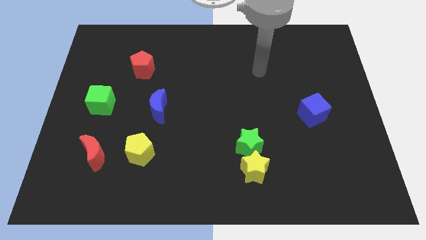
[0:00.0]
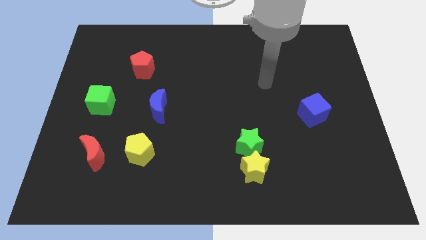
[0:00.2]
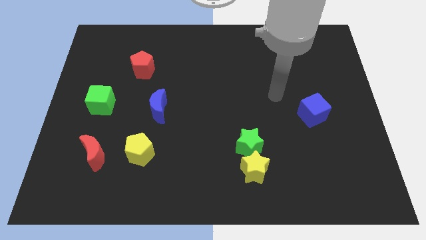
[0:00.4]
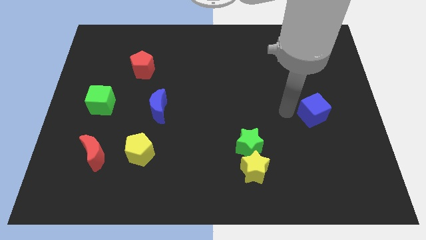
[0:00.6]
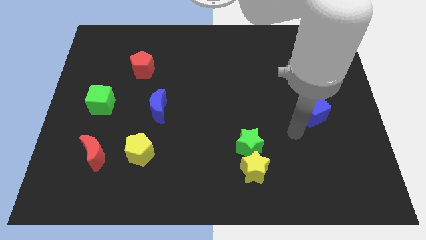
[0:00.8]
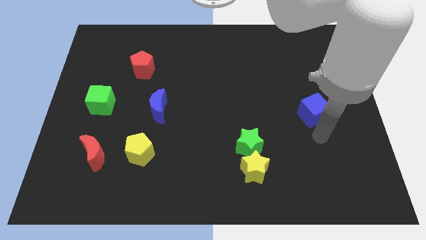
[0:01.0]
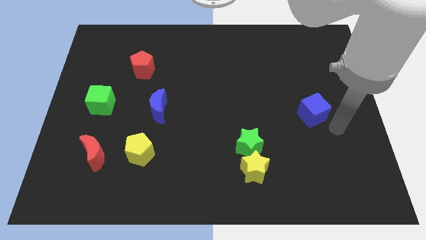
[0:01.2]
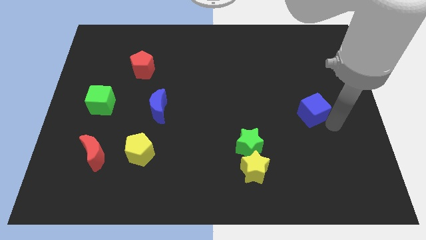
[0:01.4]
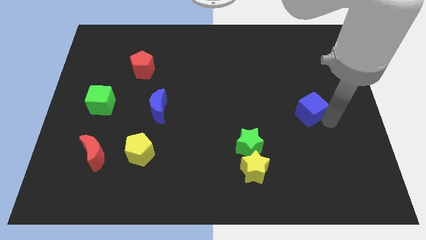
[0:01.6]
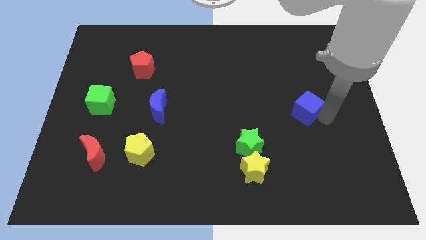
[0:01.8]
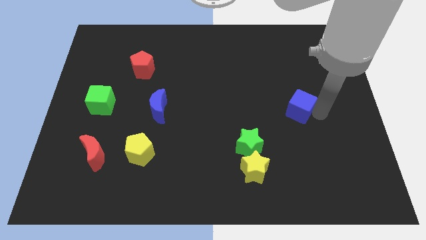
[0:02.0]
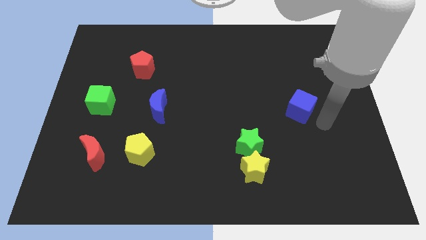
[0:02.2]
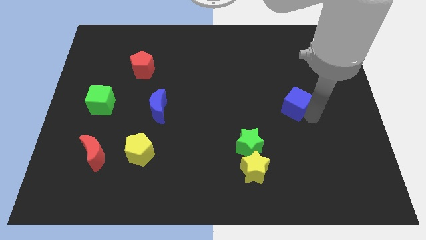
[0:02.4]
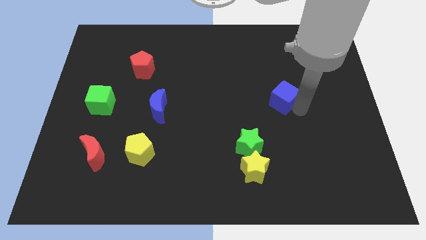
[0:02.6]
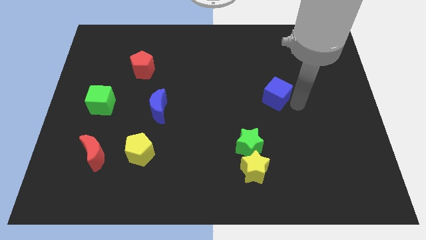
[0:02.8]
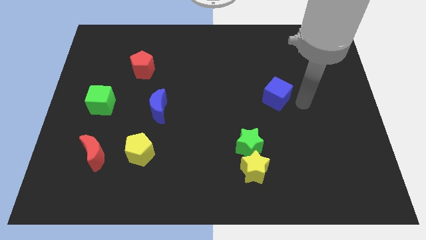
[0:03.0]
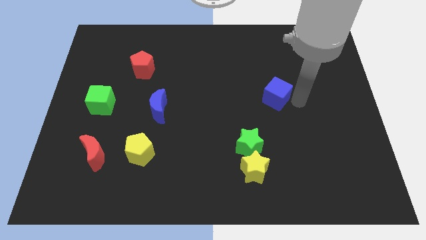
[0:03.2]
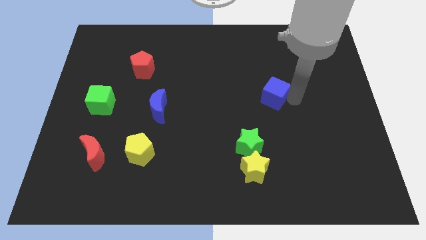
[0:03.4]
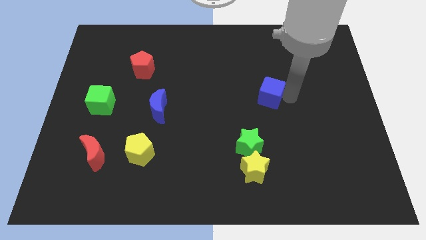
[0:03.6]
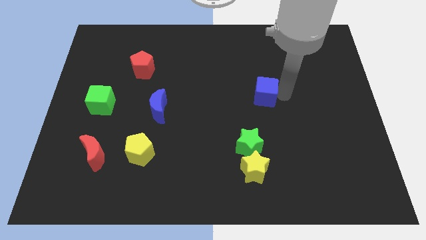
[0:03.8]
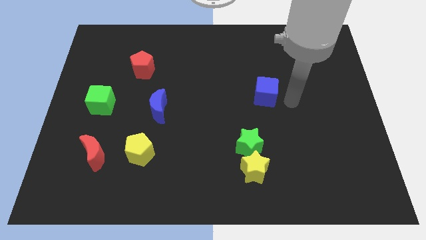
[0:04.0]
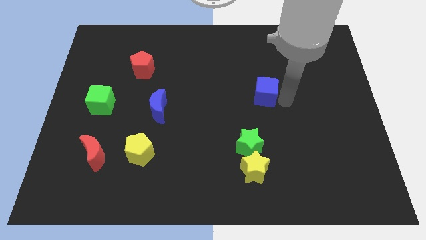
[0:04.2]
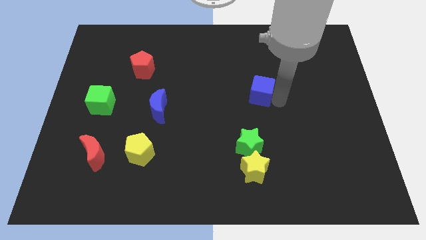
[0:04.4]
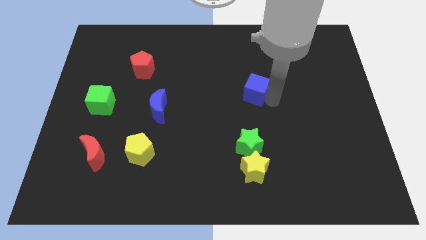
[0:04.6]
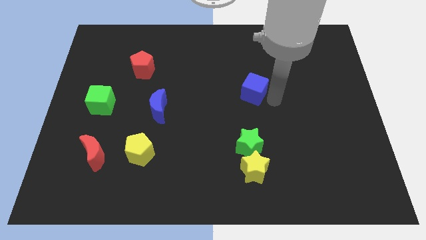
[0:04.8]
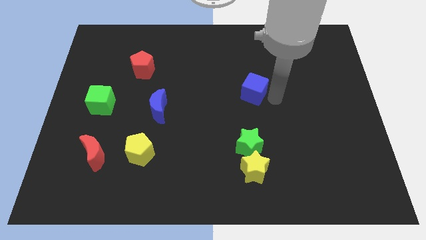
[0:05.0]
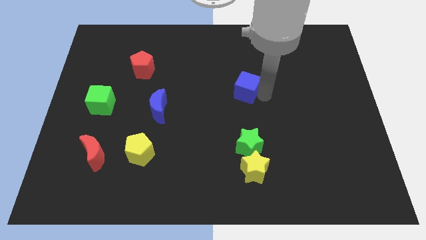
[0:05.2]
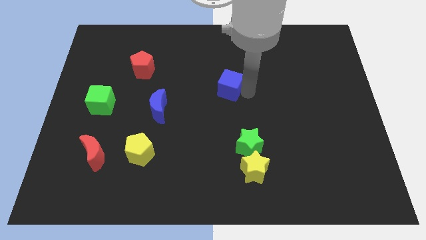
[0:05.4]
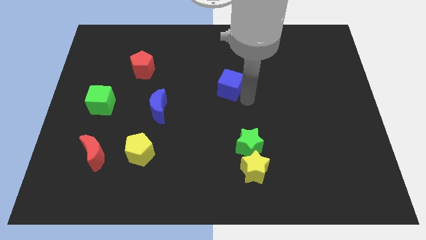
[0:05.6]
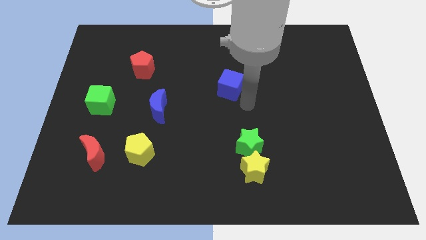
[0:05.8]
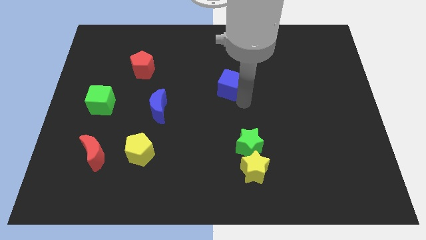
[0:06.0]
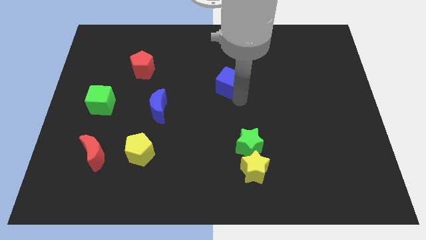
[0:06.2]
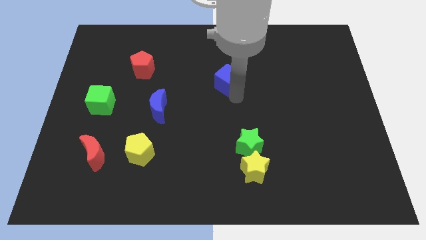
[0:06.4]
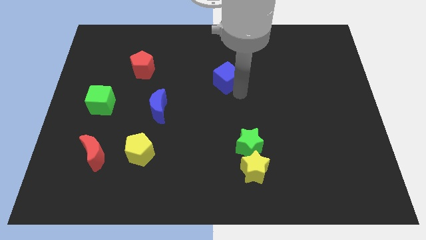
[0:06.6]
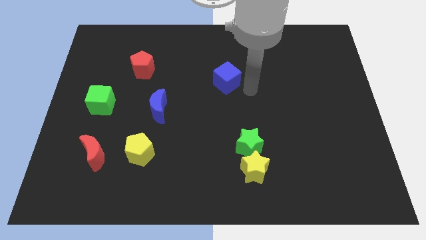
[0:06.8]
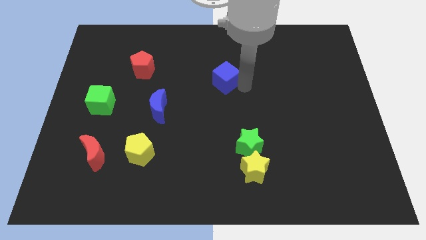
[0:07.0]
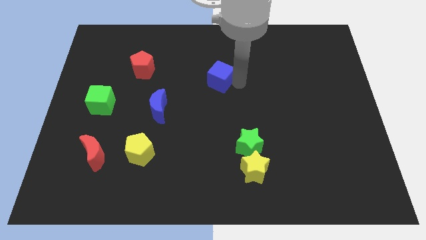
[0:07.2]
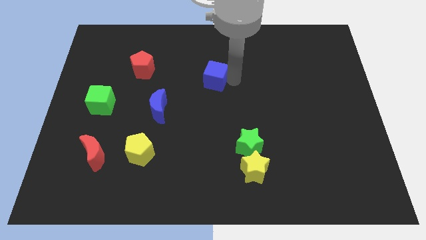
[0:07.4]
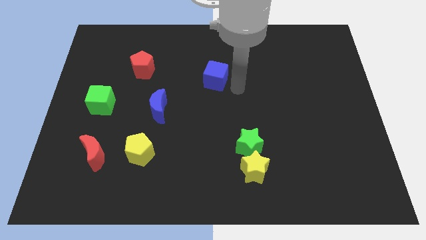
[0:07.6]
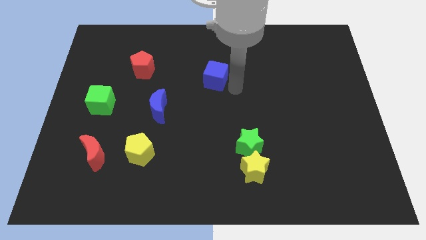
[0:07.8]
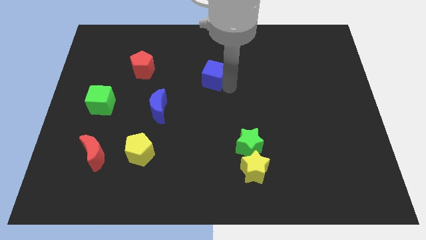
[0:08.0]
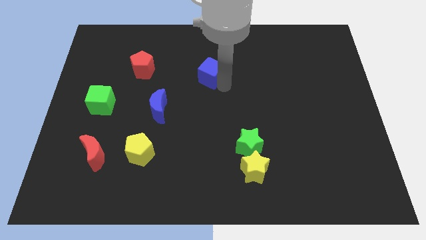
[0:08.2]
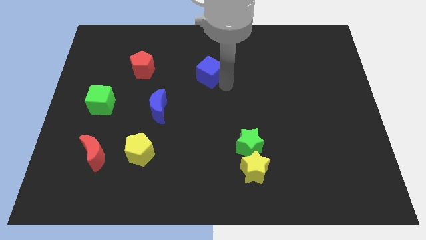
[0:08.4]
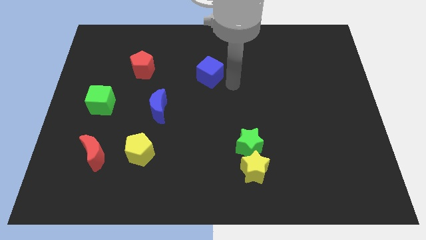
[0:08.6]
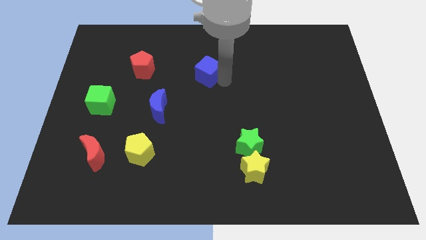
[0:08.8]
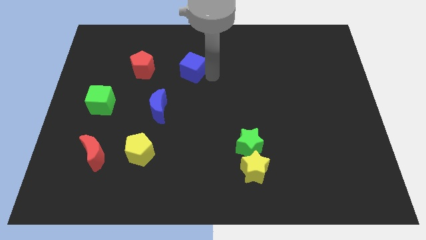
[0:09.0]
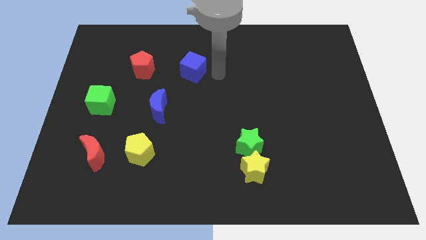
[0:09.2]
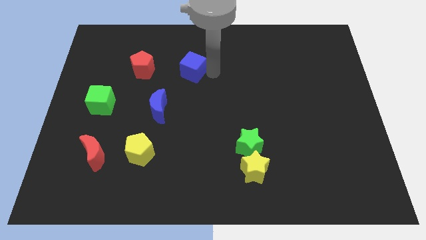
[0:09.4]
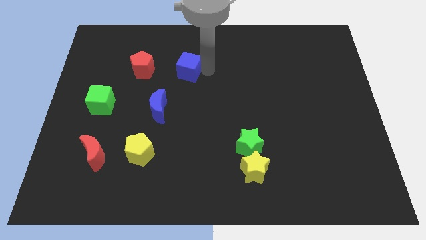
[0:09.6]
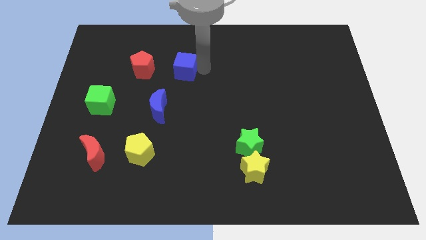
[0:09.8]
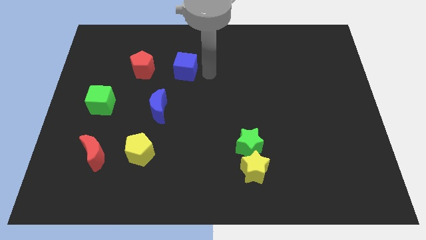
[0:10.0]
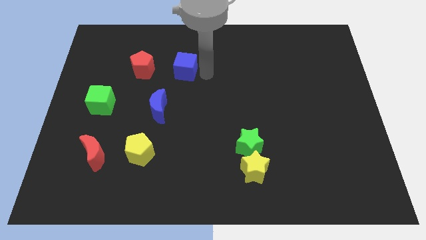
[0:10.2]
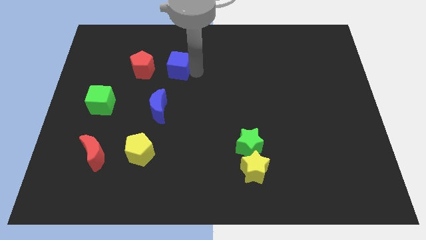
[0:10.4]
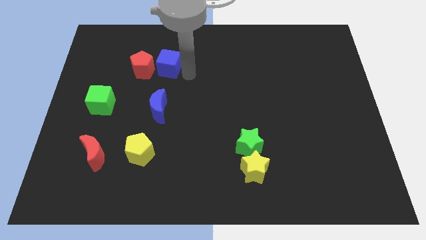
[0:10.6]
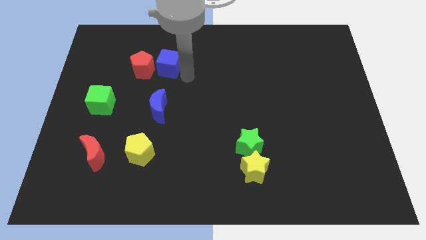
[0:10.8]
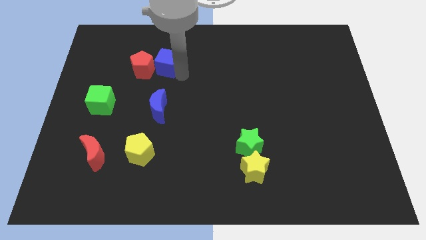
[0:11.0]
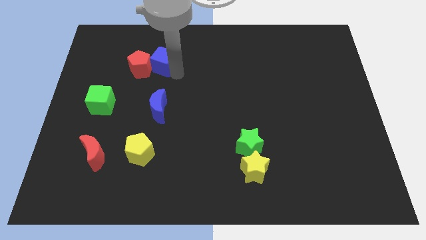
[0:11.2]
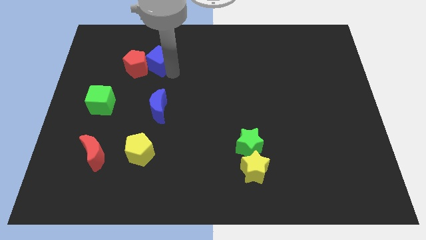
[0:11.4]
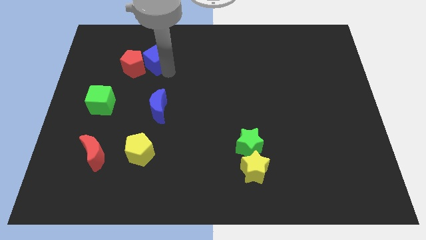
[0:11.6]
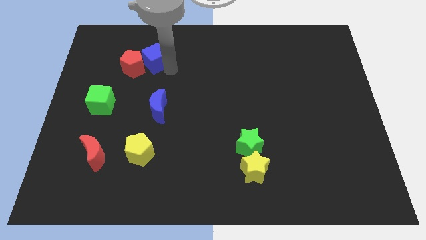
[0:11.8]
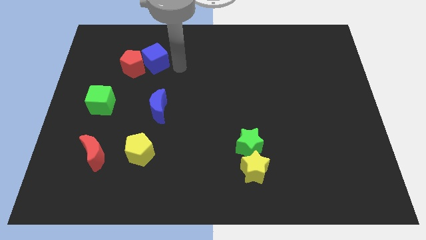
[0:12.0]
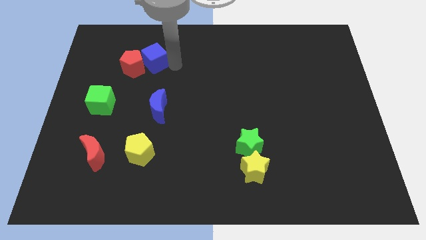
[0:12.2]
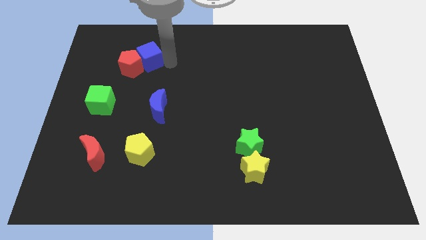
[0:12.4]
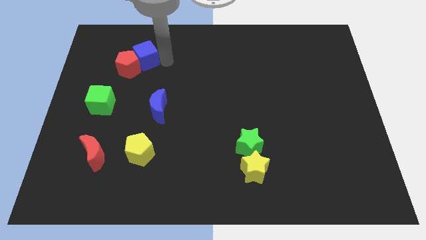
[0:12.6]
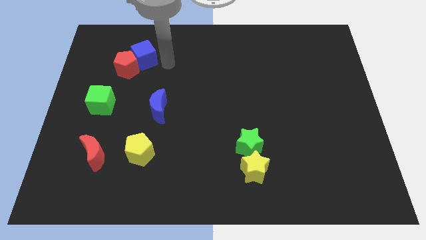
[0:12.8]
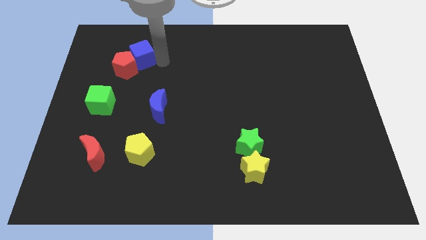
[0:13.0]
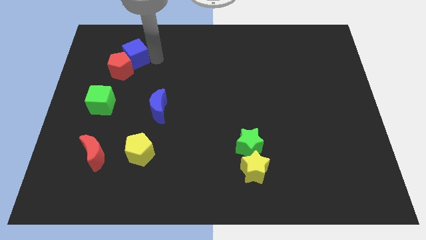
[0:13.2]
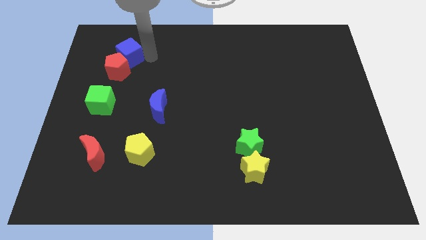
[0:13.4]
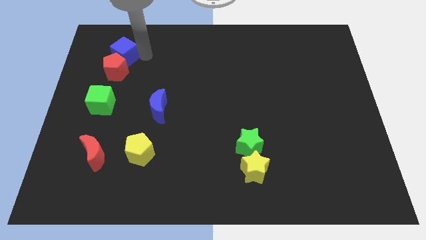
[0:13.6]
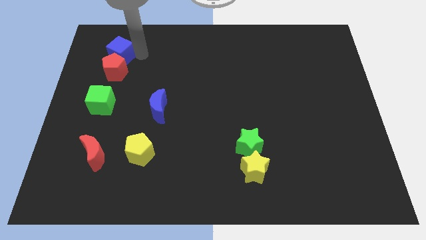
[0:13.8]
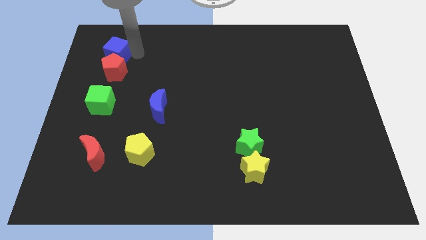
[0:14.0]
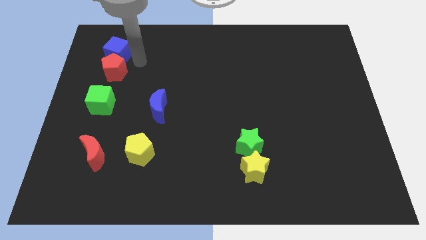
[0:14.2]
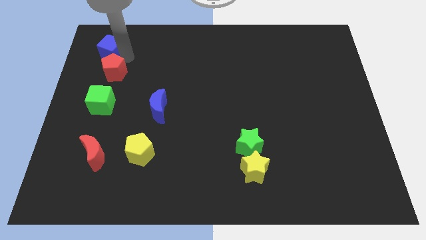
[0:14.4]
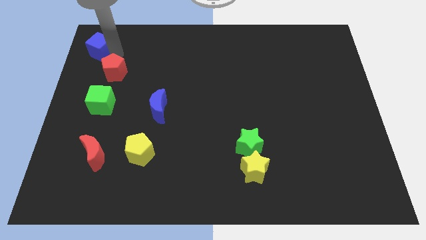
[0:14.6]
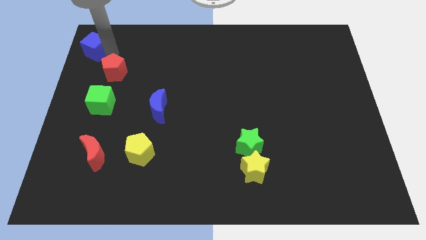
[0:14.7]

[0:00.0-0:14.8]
move the blue cube to the top left of the board
